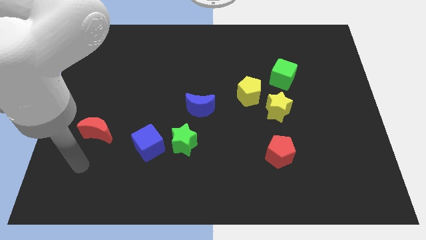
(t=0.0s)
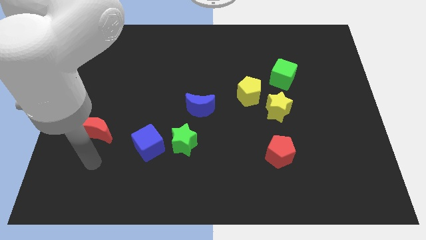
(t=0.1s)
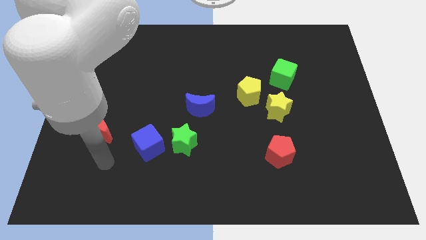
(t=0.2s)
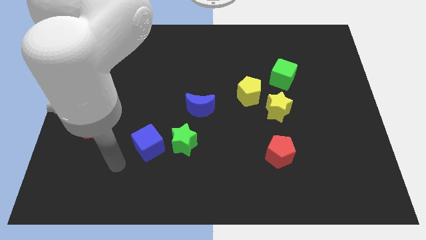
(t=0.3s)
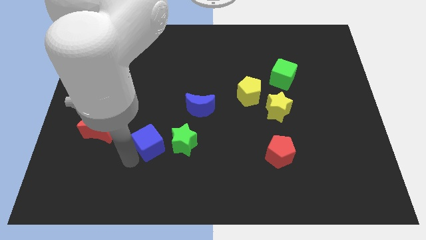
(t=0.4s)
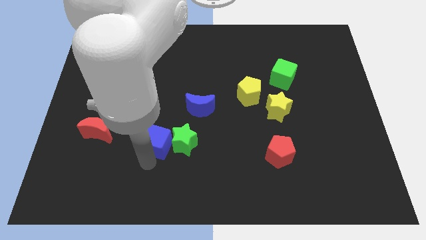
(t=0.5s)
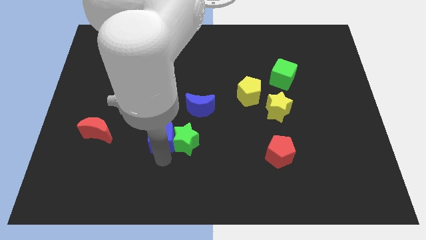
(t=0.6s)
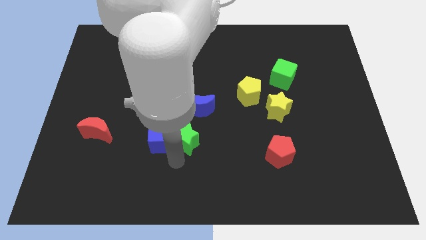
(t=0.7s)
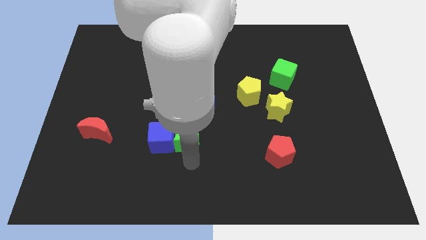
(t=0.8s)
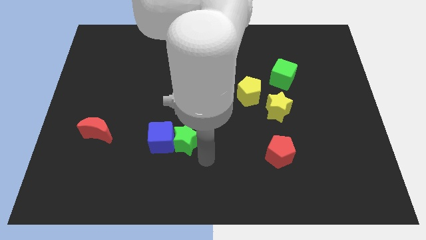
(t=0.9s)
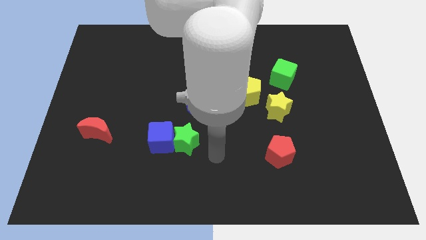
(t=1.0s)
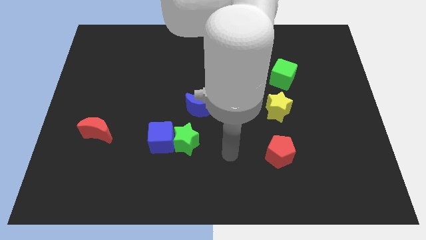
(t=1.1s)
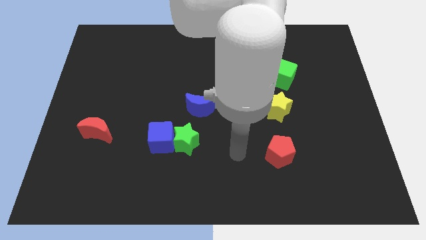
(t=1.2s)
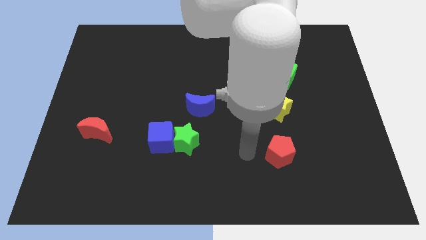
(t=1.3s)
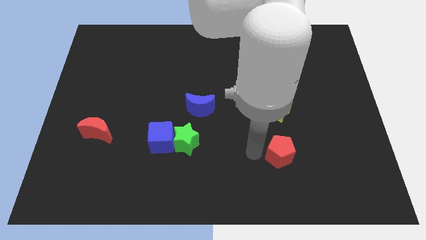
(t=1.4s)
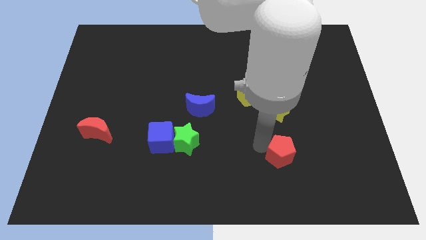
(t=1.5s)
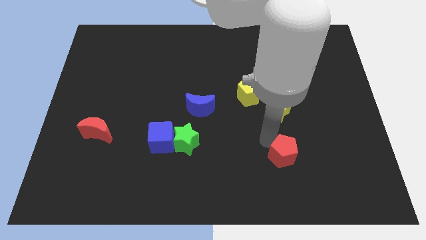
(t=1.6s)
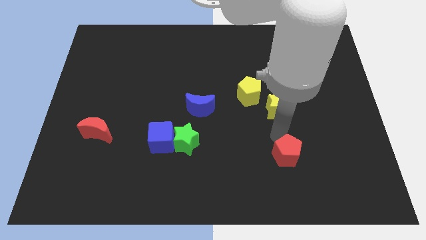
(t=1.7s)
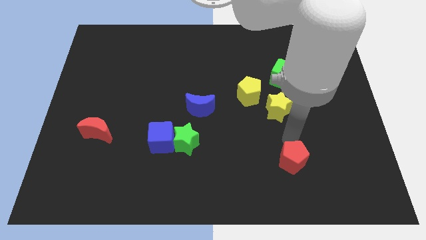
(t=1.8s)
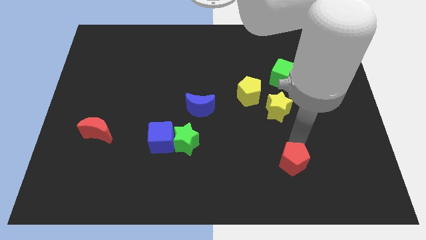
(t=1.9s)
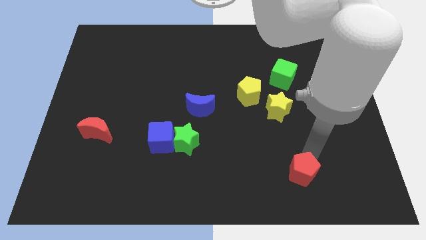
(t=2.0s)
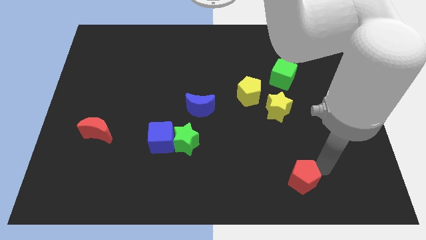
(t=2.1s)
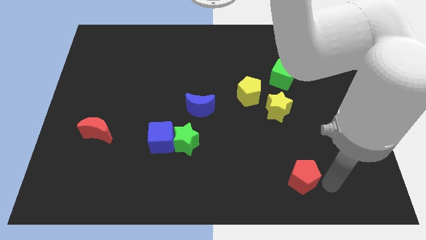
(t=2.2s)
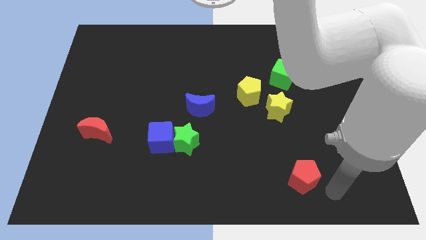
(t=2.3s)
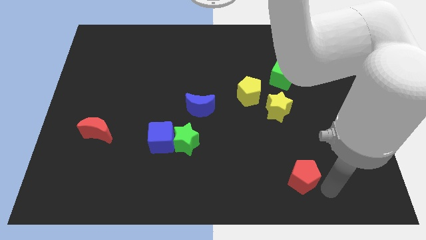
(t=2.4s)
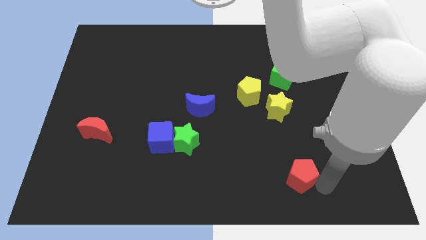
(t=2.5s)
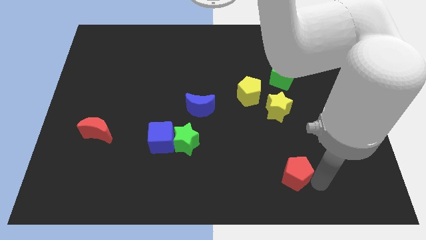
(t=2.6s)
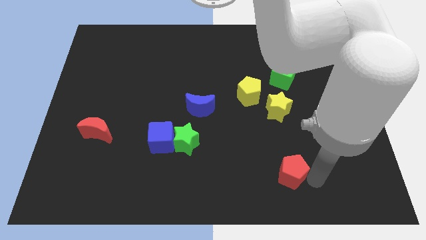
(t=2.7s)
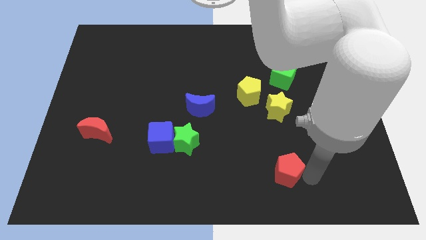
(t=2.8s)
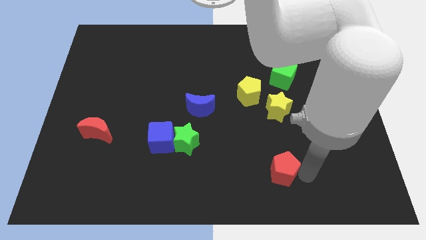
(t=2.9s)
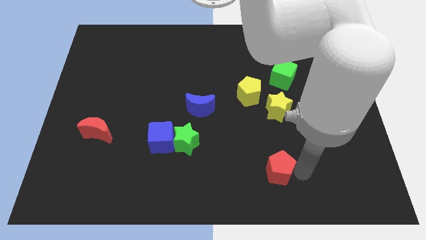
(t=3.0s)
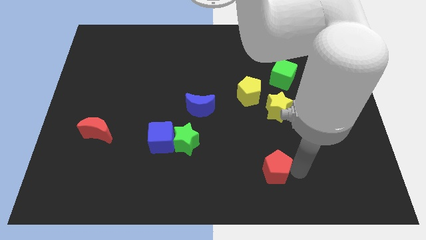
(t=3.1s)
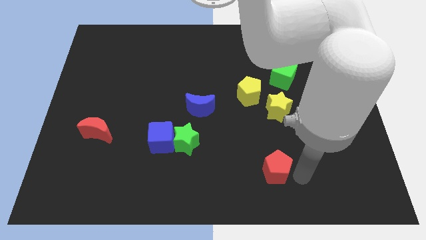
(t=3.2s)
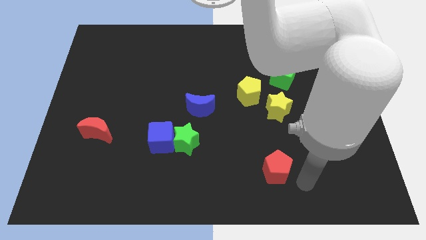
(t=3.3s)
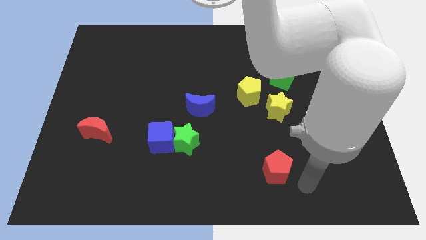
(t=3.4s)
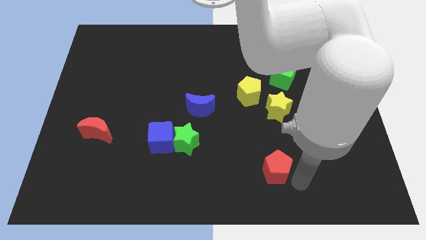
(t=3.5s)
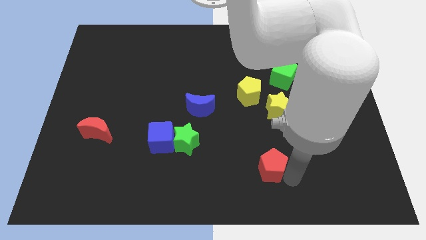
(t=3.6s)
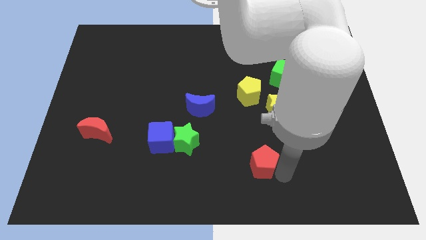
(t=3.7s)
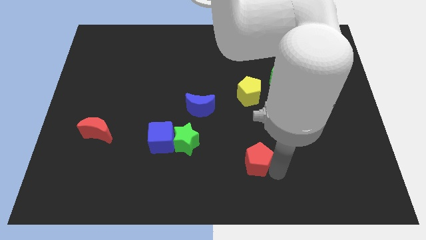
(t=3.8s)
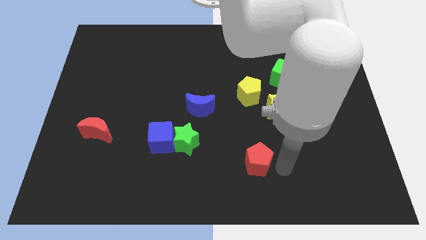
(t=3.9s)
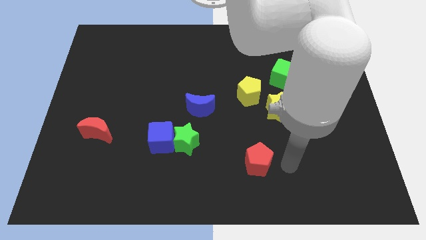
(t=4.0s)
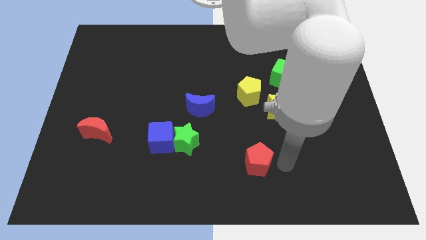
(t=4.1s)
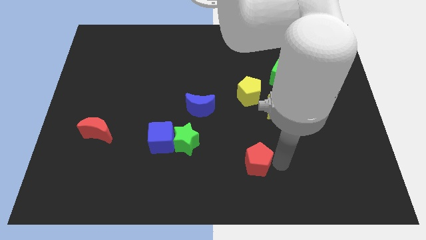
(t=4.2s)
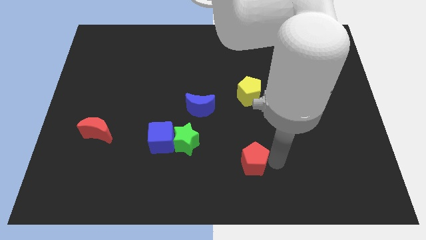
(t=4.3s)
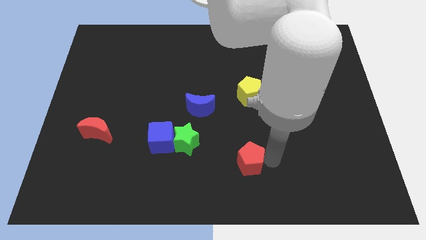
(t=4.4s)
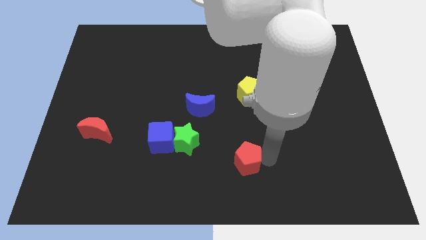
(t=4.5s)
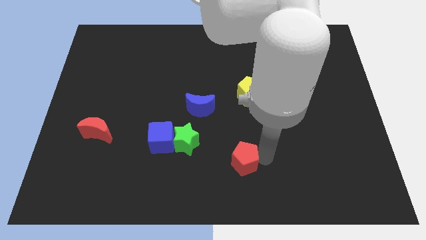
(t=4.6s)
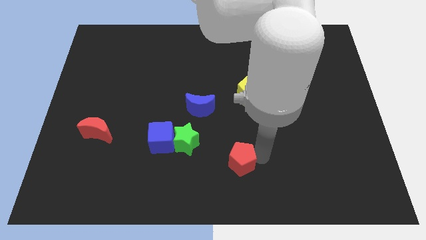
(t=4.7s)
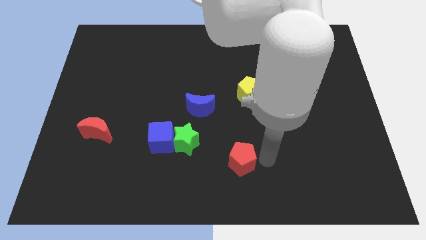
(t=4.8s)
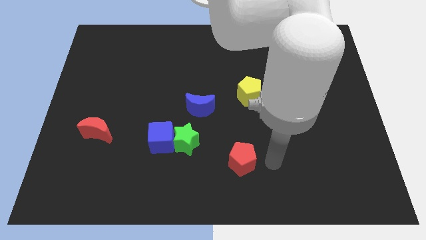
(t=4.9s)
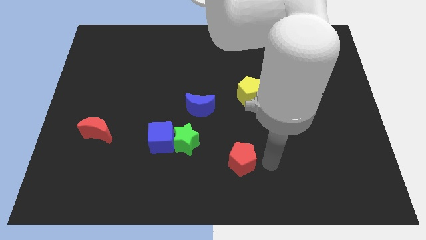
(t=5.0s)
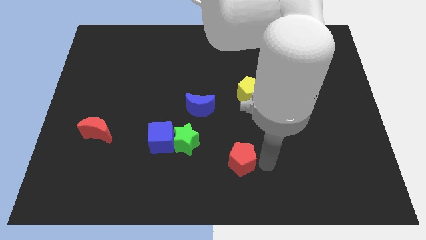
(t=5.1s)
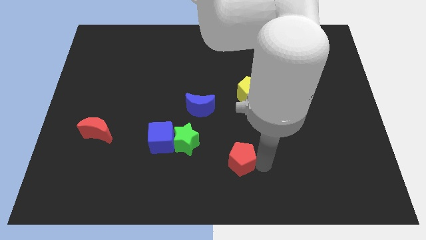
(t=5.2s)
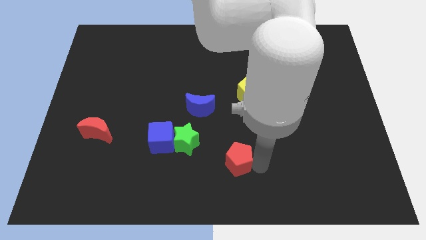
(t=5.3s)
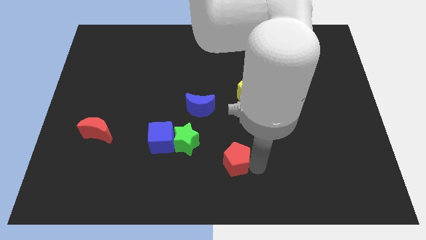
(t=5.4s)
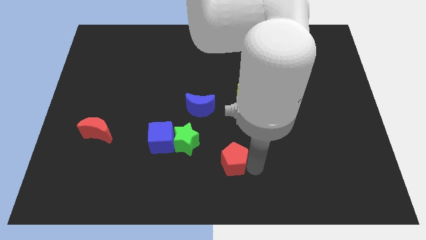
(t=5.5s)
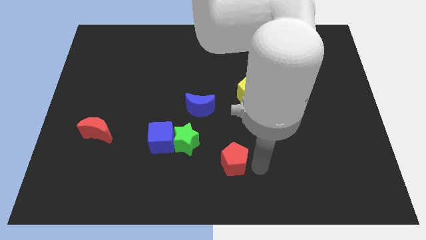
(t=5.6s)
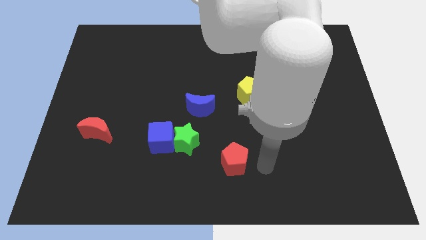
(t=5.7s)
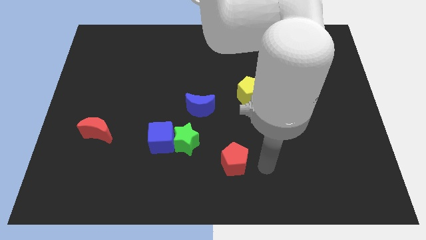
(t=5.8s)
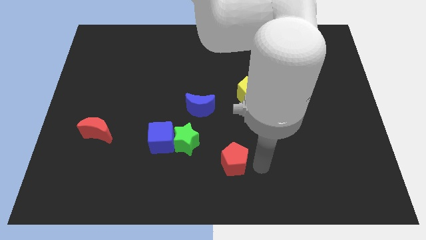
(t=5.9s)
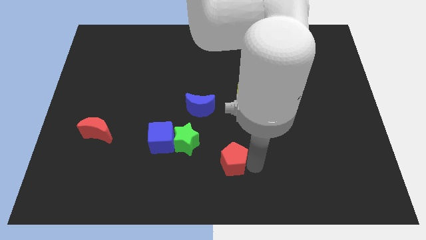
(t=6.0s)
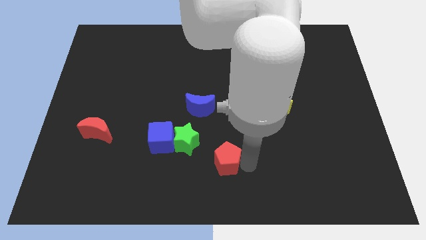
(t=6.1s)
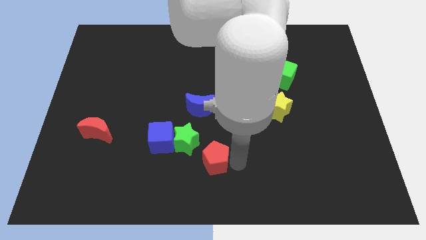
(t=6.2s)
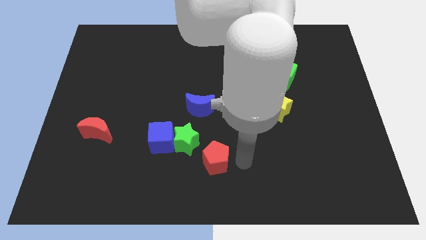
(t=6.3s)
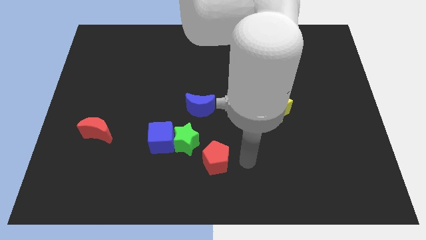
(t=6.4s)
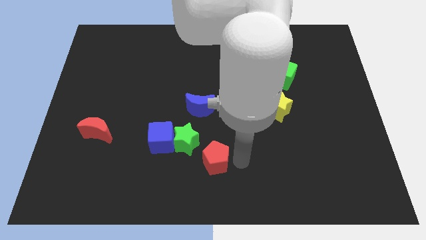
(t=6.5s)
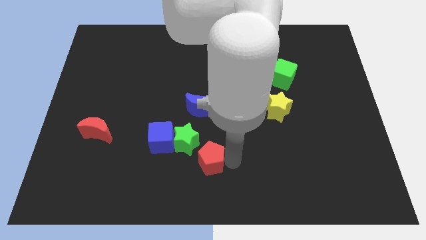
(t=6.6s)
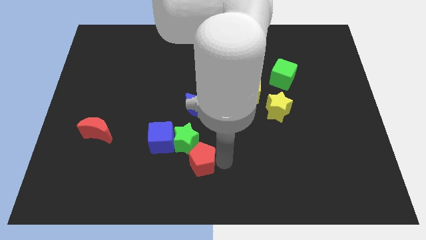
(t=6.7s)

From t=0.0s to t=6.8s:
push the red pentagon diagonally down and to the right of the blue cube

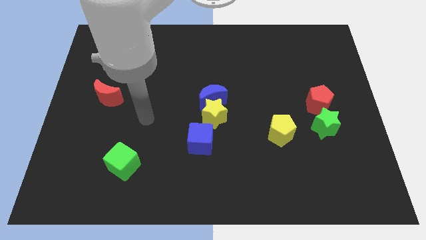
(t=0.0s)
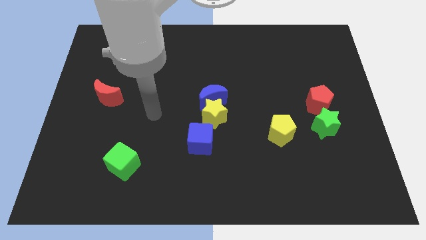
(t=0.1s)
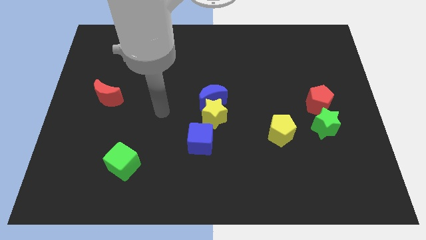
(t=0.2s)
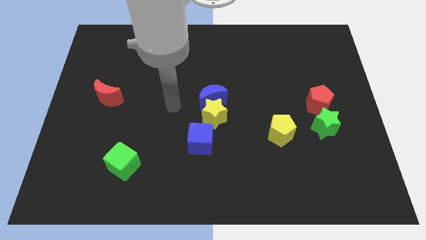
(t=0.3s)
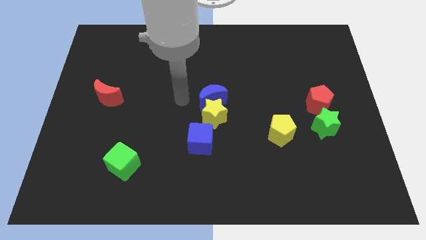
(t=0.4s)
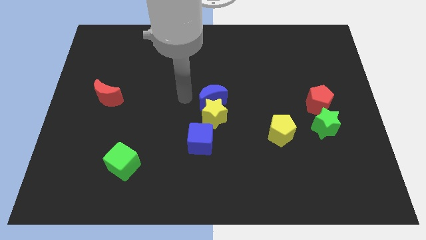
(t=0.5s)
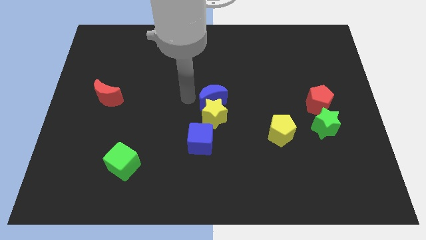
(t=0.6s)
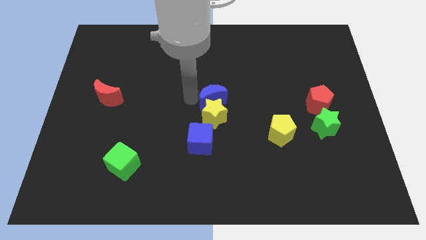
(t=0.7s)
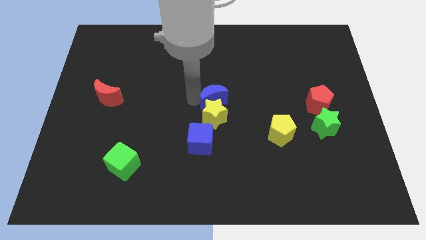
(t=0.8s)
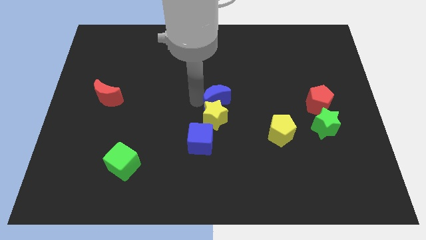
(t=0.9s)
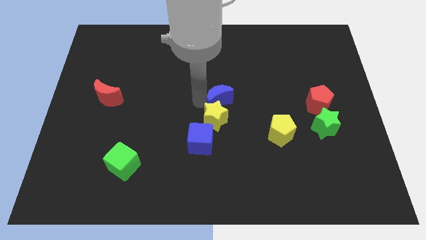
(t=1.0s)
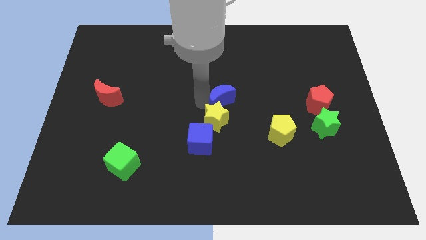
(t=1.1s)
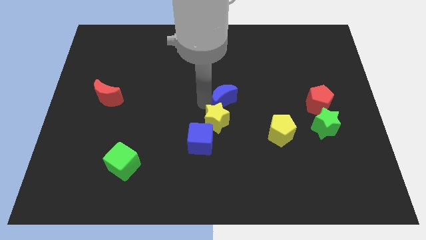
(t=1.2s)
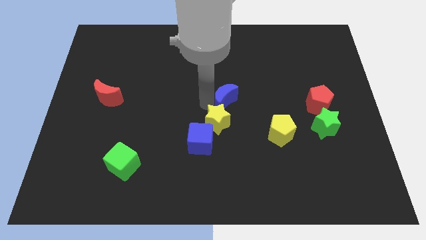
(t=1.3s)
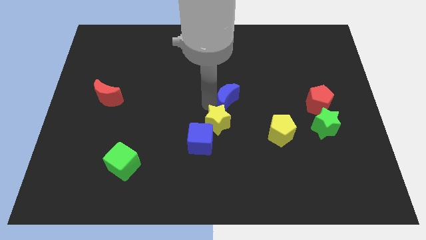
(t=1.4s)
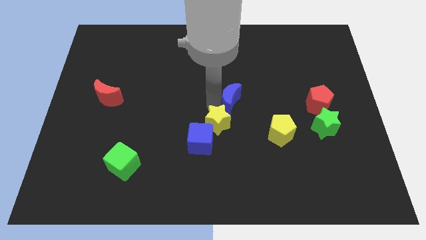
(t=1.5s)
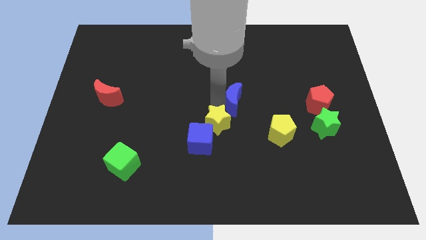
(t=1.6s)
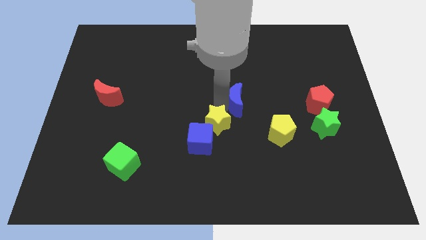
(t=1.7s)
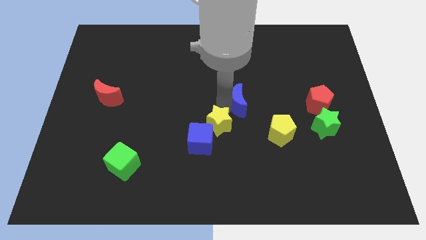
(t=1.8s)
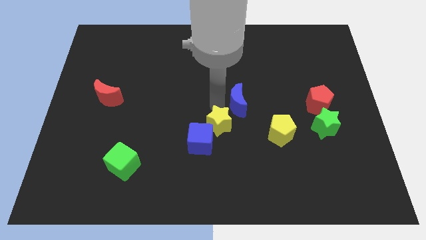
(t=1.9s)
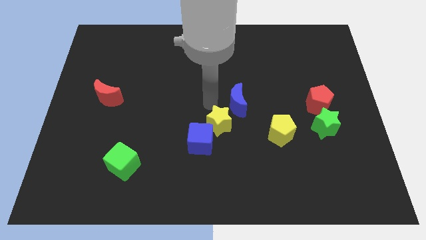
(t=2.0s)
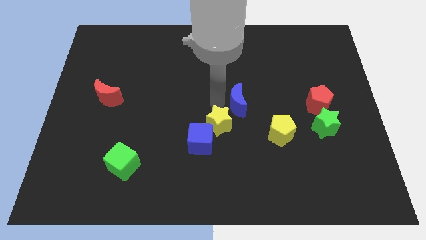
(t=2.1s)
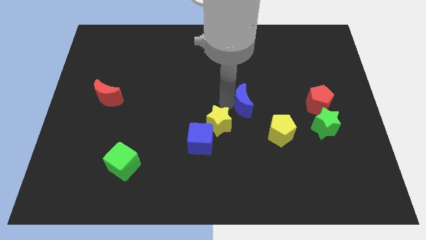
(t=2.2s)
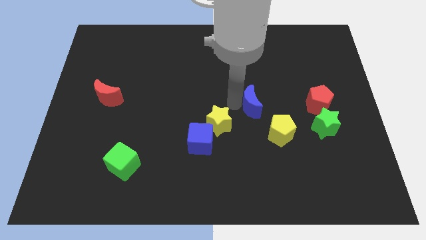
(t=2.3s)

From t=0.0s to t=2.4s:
move the blue moon just left of the red pentagon
